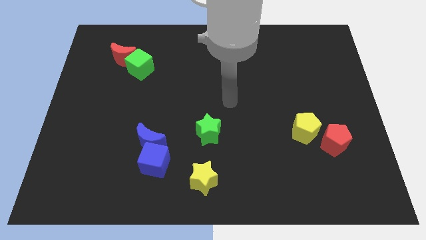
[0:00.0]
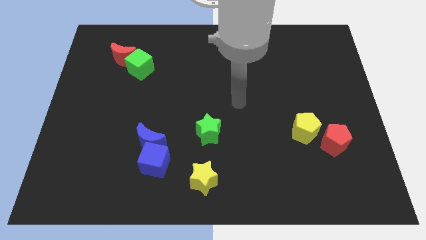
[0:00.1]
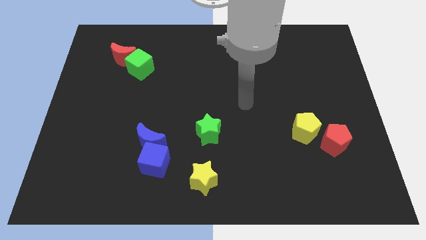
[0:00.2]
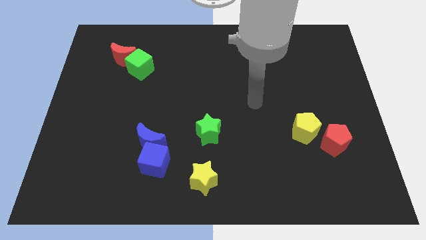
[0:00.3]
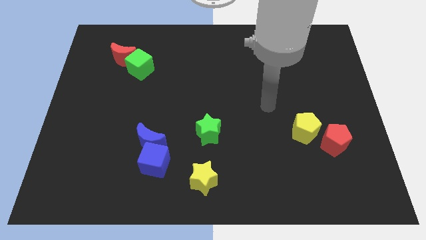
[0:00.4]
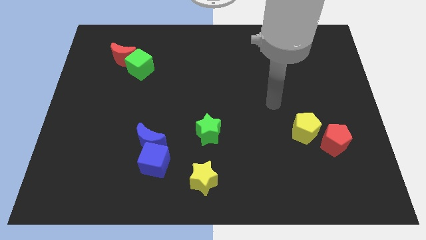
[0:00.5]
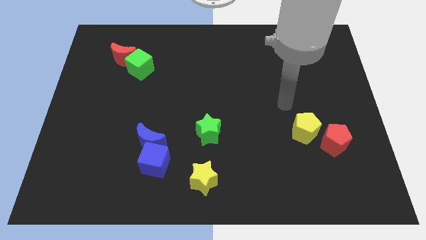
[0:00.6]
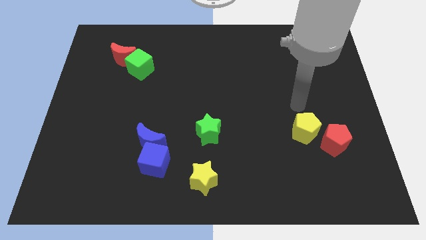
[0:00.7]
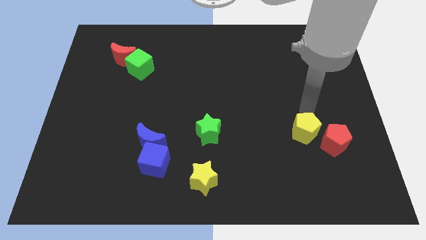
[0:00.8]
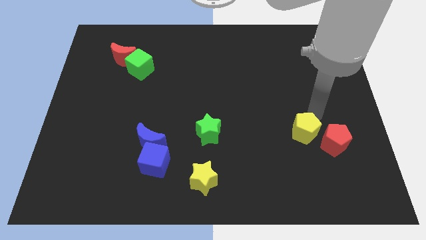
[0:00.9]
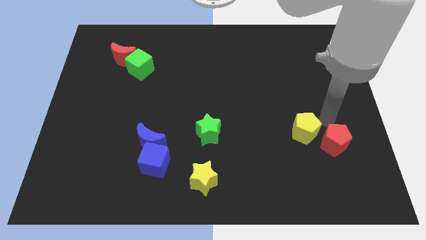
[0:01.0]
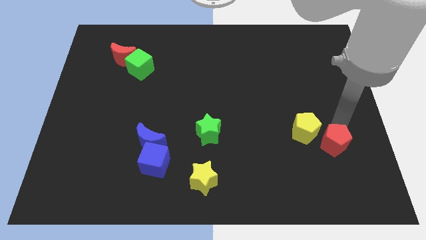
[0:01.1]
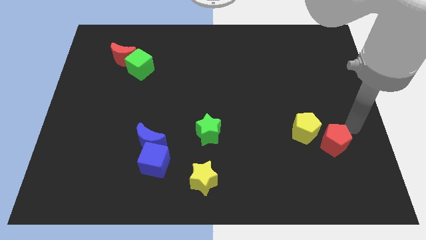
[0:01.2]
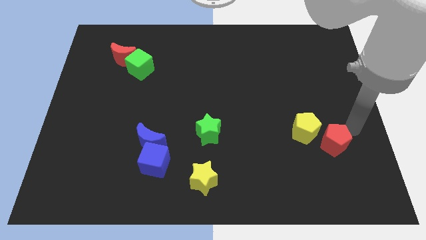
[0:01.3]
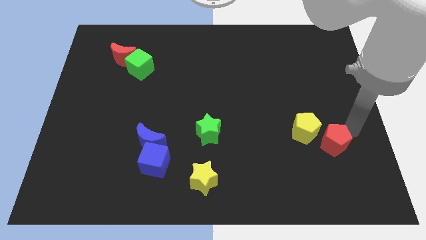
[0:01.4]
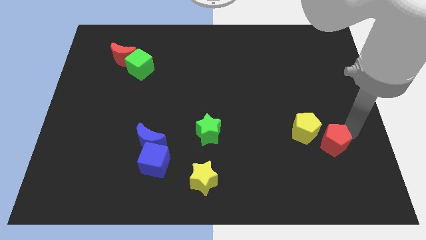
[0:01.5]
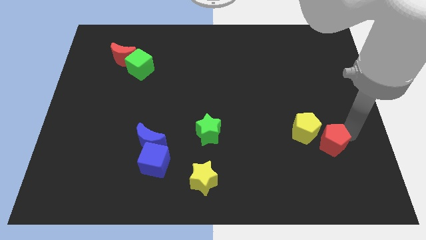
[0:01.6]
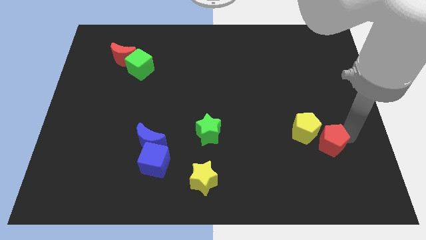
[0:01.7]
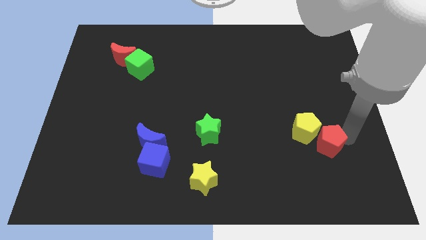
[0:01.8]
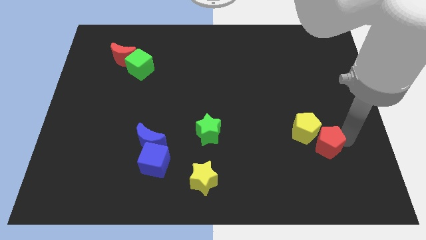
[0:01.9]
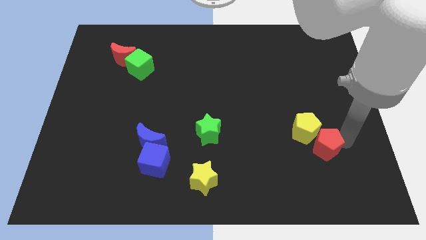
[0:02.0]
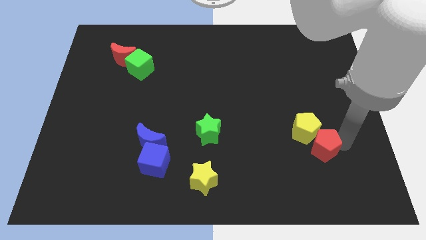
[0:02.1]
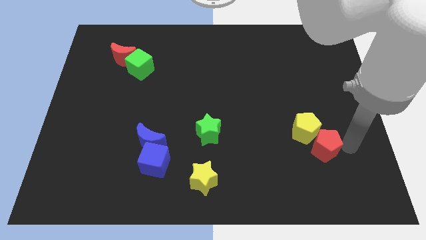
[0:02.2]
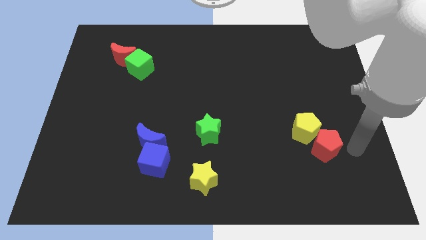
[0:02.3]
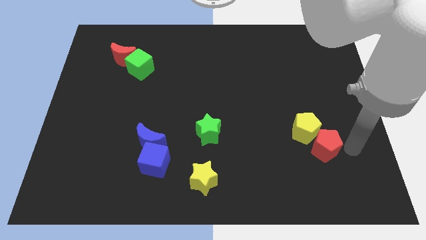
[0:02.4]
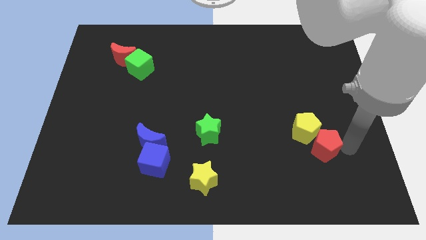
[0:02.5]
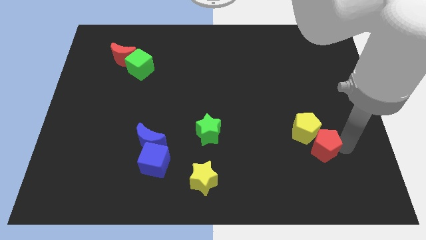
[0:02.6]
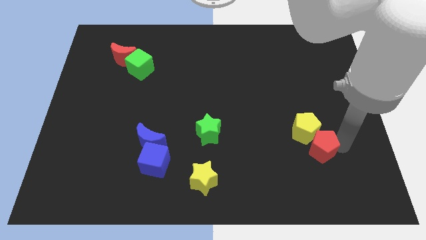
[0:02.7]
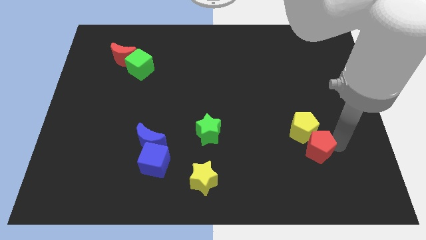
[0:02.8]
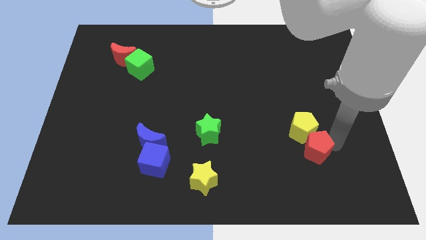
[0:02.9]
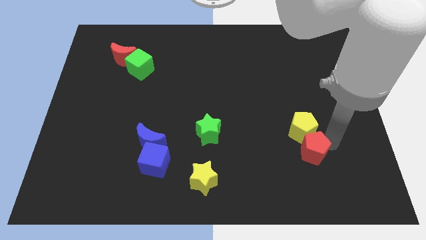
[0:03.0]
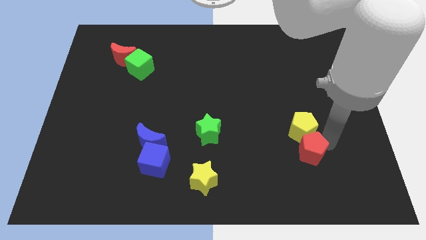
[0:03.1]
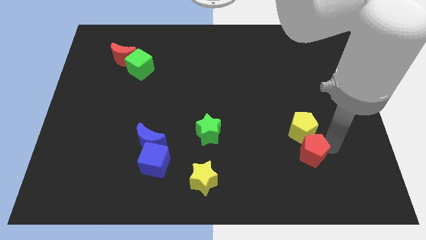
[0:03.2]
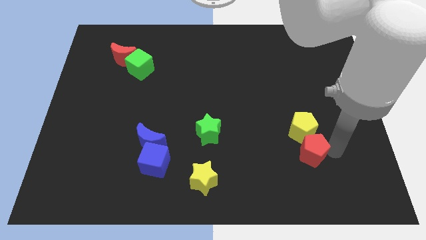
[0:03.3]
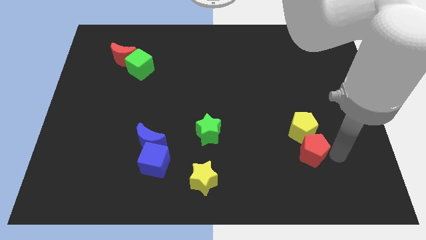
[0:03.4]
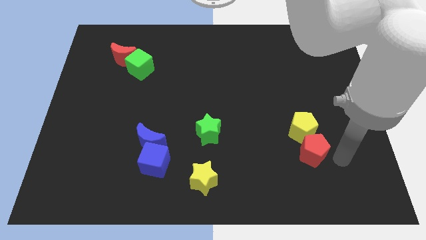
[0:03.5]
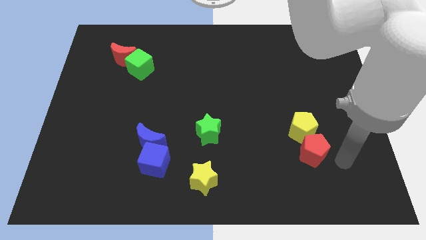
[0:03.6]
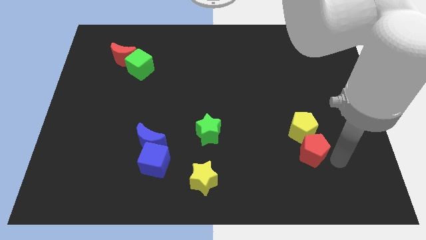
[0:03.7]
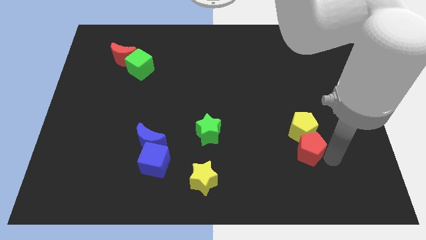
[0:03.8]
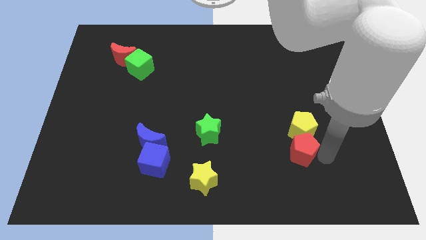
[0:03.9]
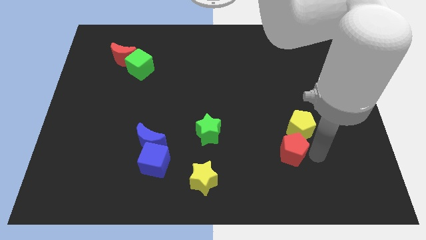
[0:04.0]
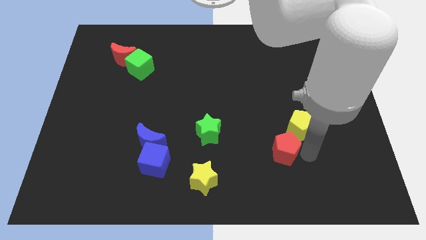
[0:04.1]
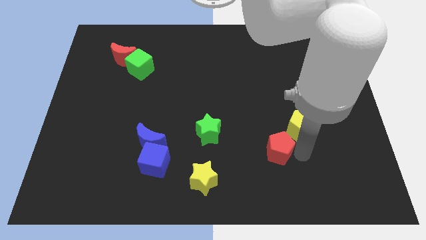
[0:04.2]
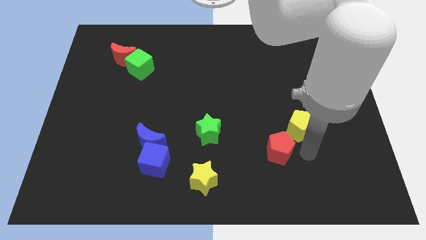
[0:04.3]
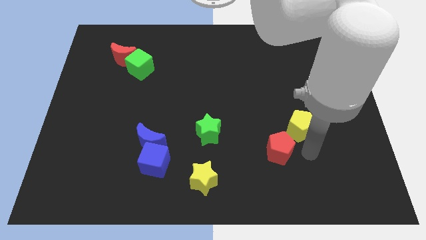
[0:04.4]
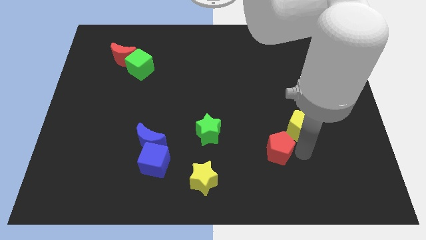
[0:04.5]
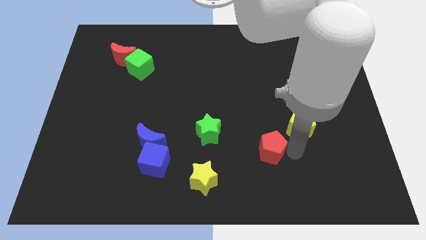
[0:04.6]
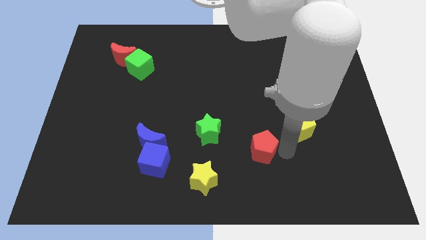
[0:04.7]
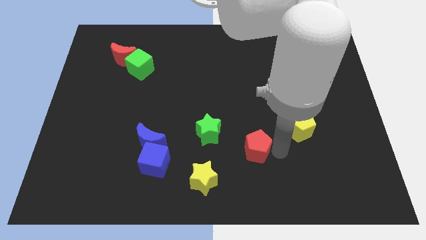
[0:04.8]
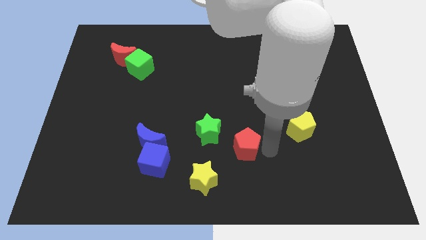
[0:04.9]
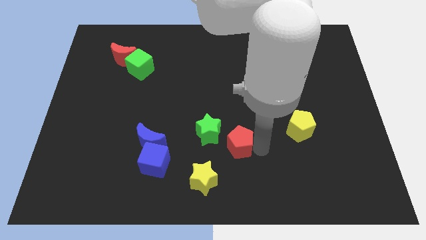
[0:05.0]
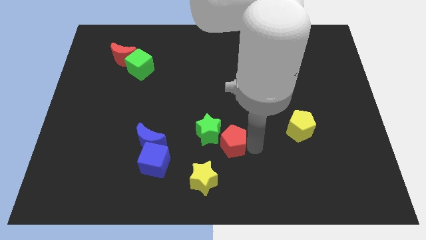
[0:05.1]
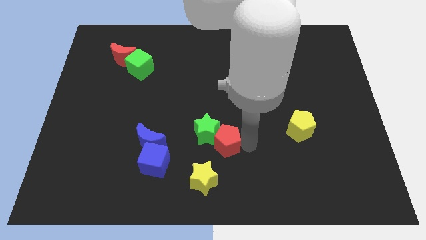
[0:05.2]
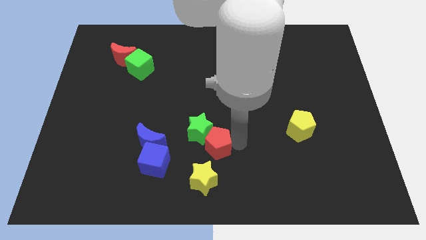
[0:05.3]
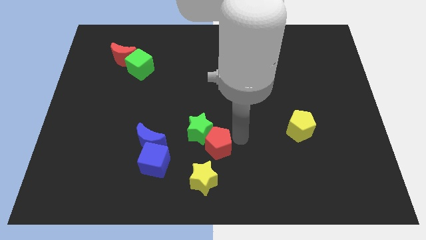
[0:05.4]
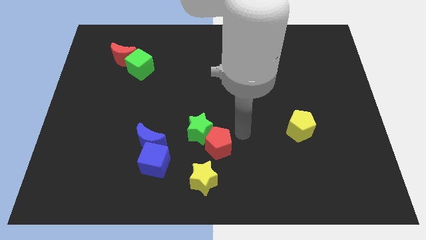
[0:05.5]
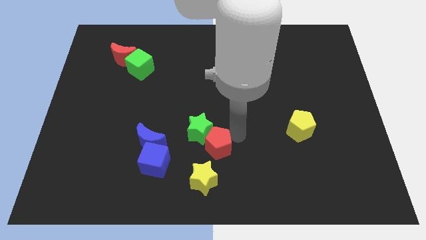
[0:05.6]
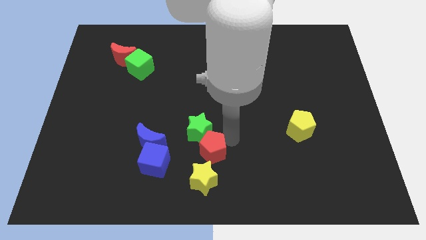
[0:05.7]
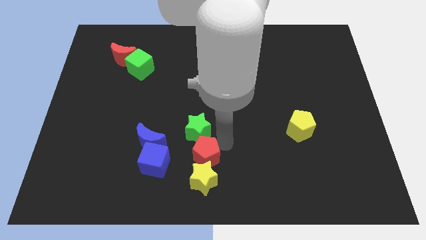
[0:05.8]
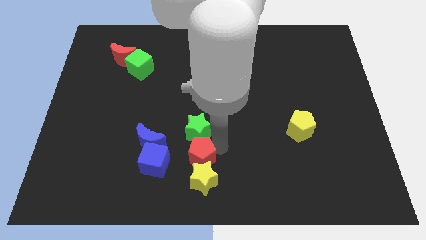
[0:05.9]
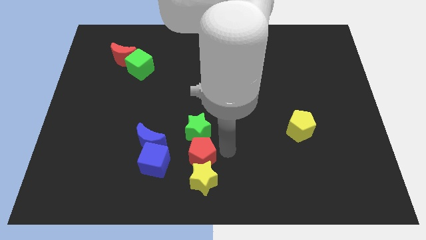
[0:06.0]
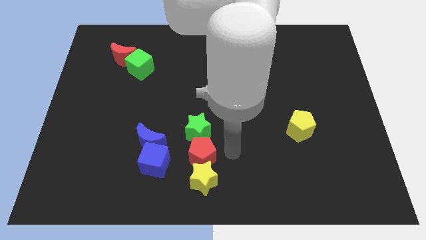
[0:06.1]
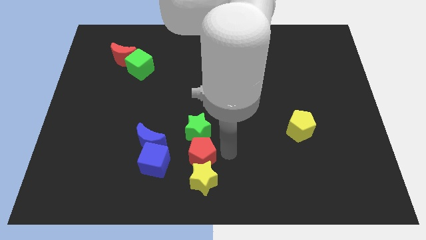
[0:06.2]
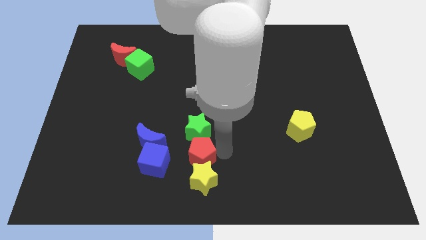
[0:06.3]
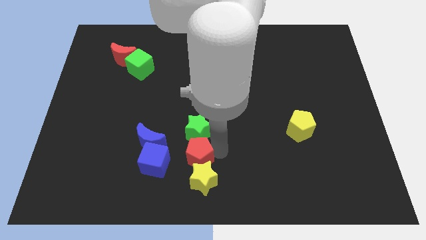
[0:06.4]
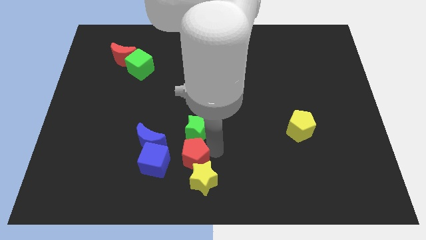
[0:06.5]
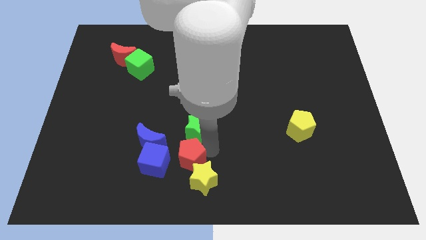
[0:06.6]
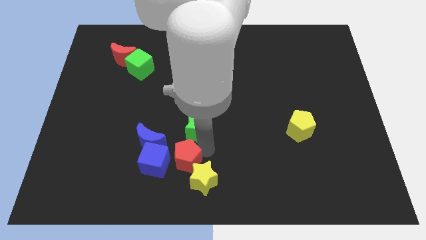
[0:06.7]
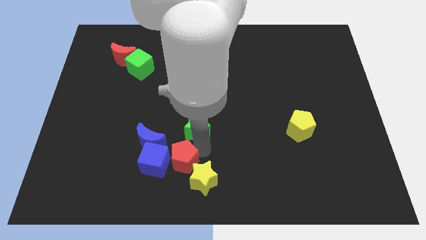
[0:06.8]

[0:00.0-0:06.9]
slide the red pentagon next to the blue cube

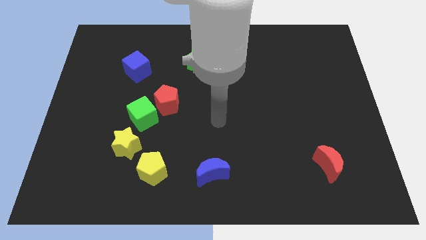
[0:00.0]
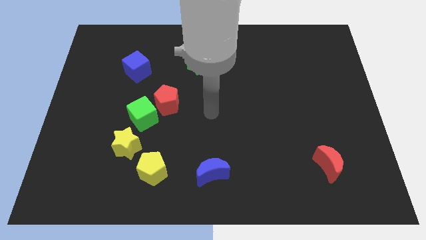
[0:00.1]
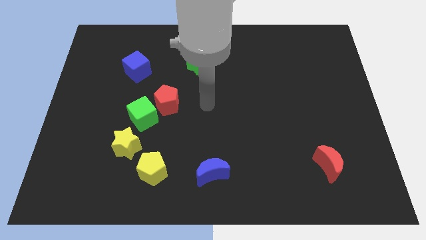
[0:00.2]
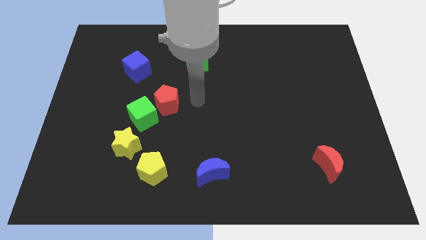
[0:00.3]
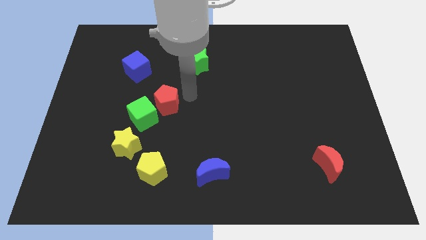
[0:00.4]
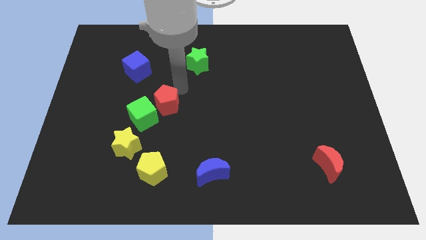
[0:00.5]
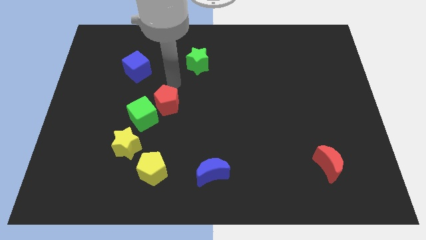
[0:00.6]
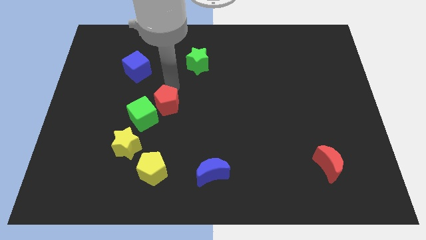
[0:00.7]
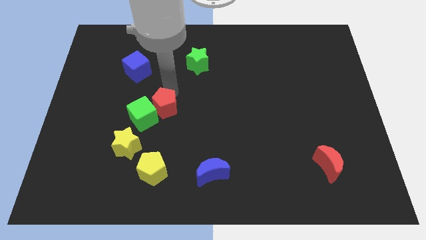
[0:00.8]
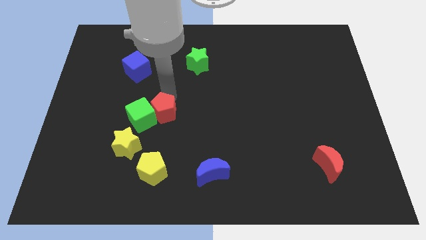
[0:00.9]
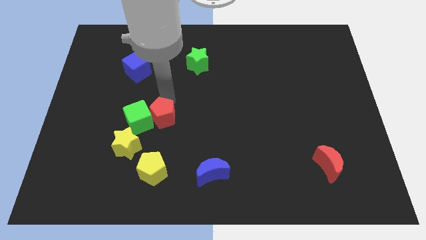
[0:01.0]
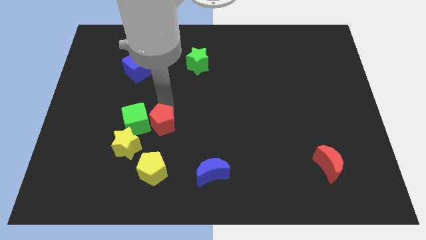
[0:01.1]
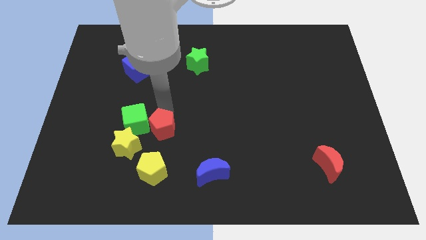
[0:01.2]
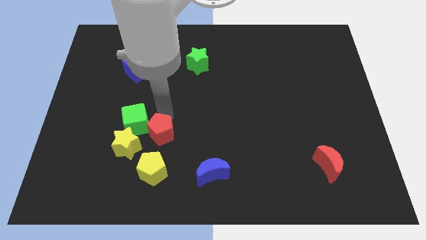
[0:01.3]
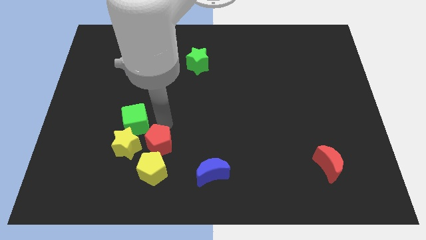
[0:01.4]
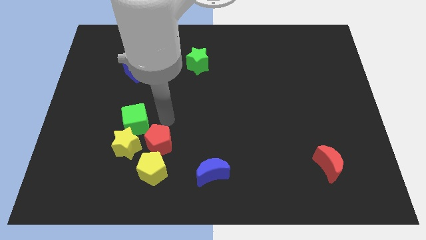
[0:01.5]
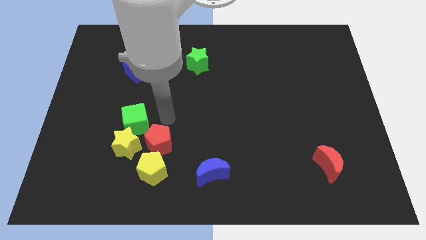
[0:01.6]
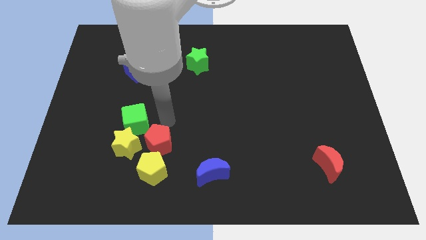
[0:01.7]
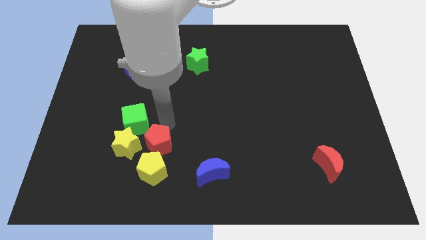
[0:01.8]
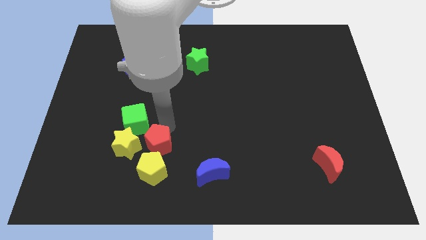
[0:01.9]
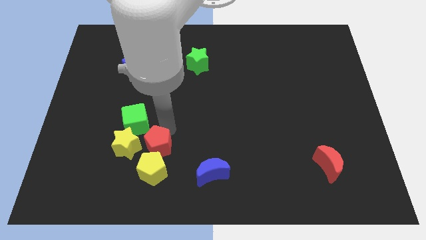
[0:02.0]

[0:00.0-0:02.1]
push the red pentagon close to the yellow pentagon
